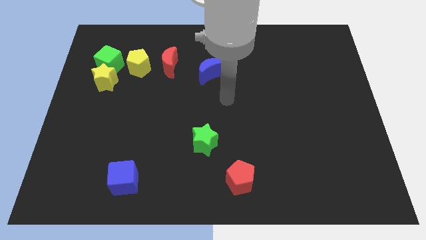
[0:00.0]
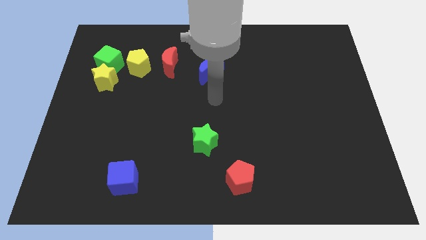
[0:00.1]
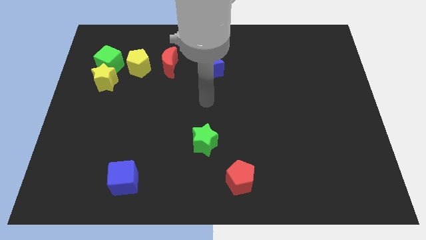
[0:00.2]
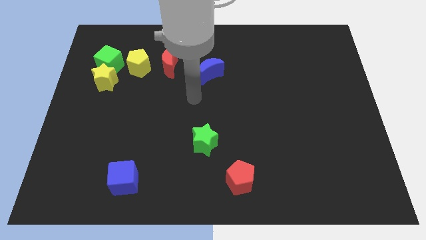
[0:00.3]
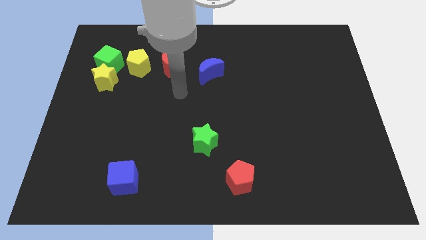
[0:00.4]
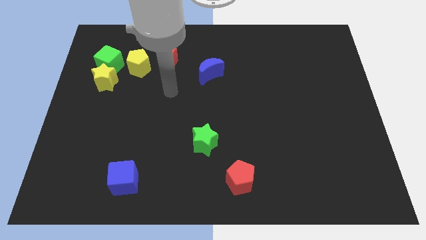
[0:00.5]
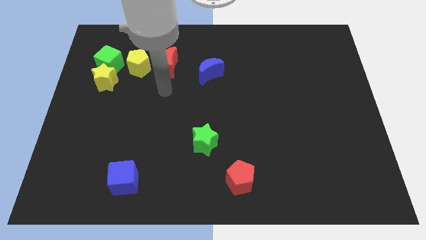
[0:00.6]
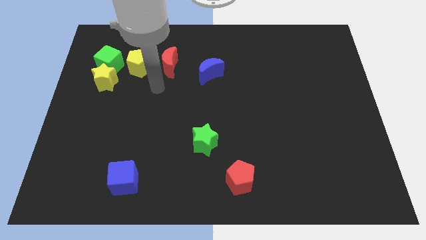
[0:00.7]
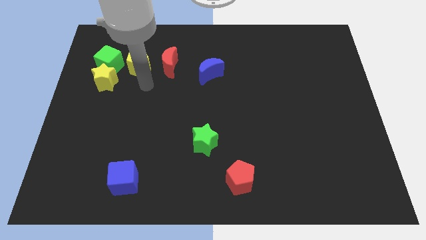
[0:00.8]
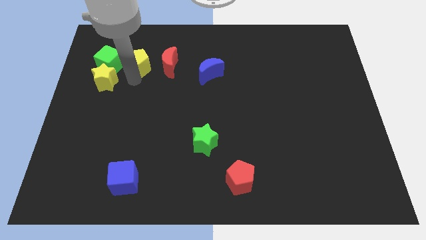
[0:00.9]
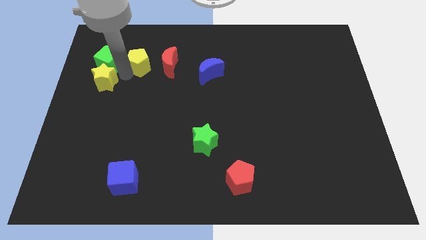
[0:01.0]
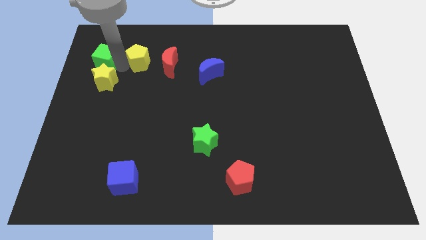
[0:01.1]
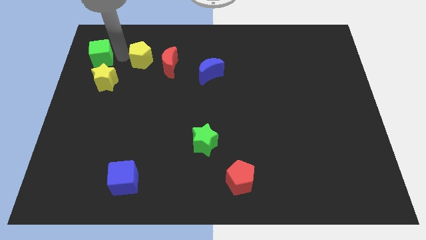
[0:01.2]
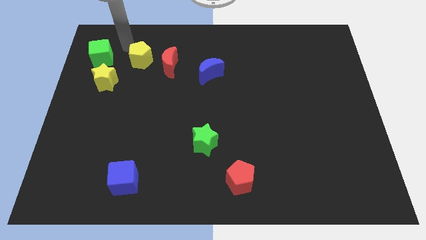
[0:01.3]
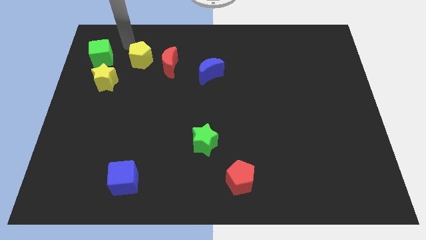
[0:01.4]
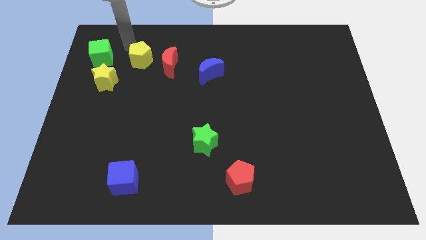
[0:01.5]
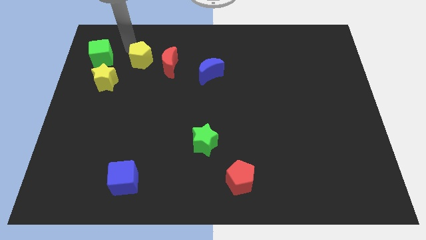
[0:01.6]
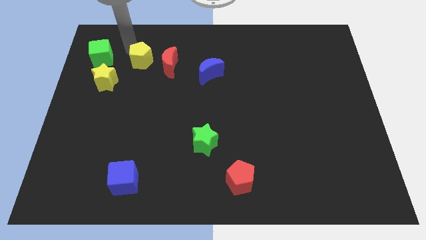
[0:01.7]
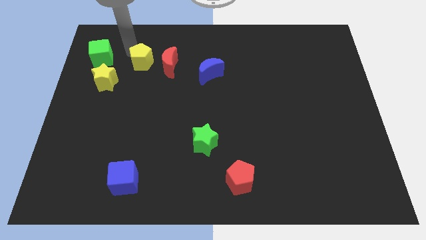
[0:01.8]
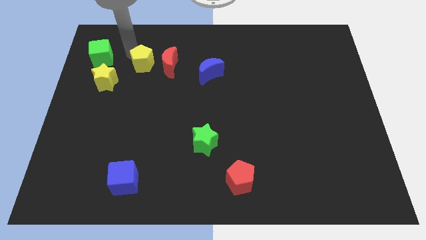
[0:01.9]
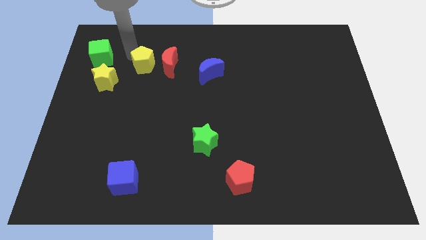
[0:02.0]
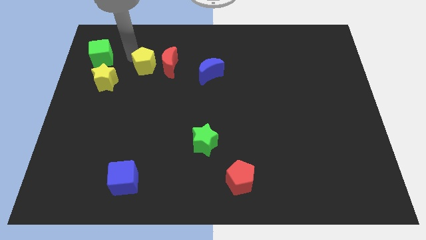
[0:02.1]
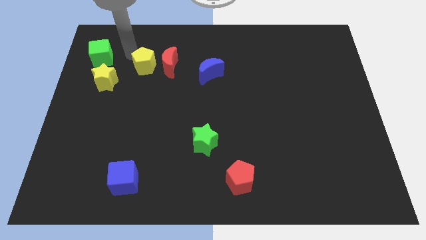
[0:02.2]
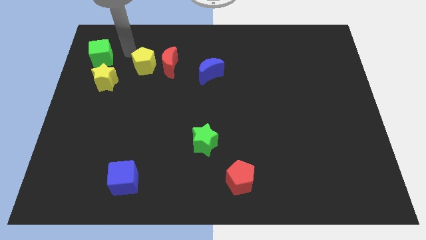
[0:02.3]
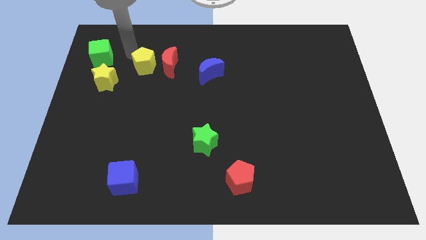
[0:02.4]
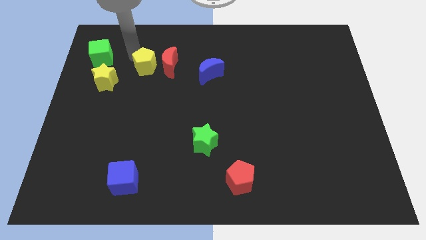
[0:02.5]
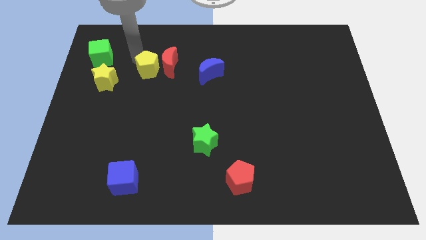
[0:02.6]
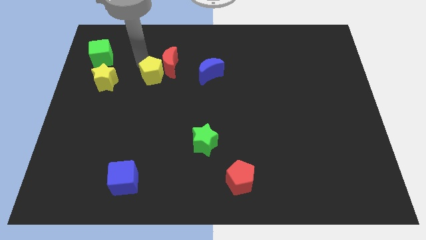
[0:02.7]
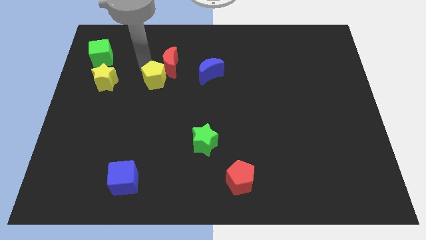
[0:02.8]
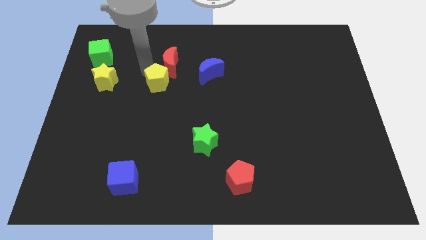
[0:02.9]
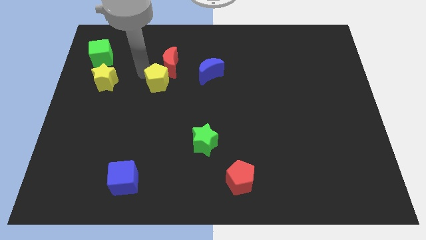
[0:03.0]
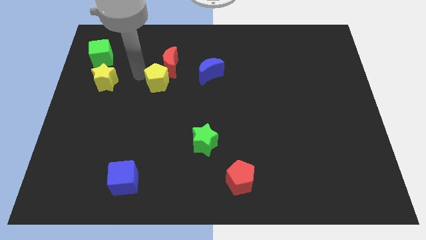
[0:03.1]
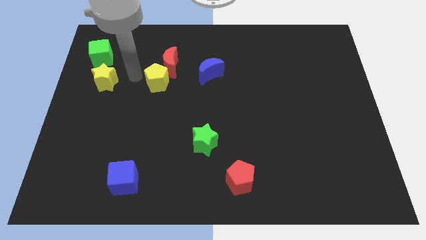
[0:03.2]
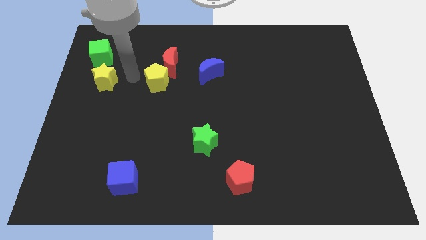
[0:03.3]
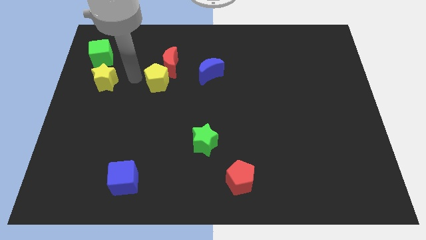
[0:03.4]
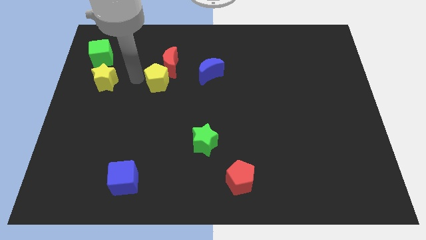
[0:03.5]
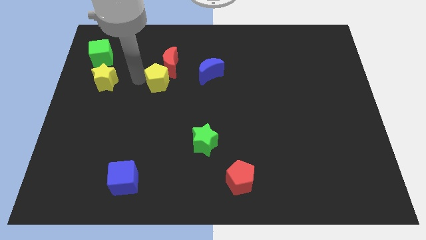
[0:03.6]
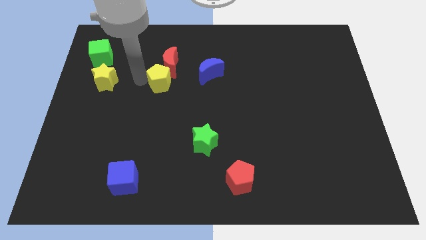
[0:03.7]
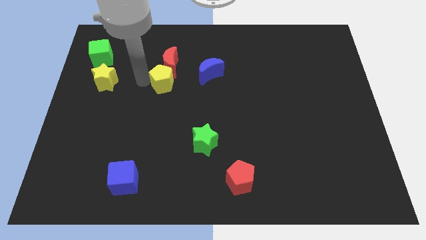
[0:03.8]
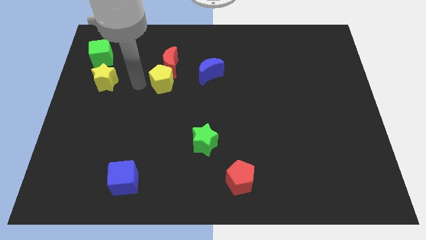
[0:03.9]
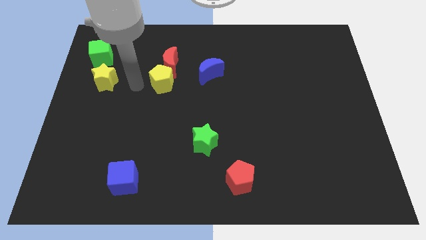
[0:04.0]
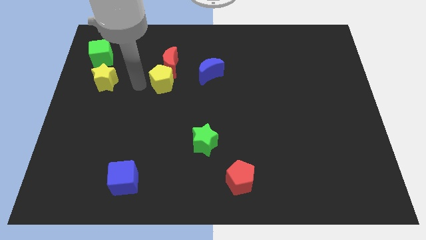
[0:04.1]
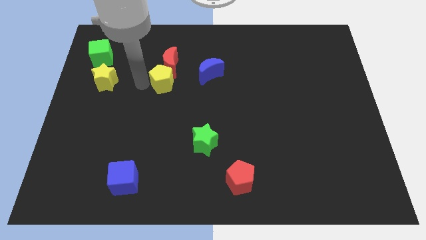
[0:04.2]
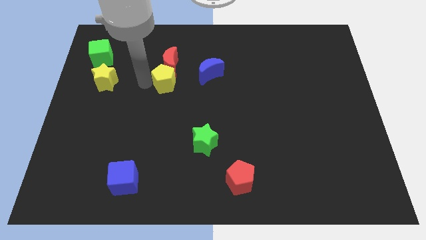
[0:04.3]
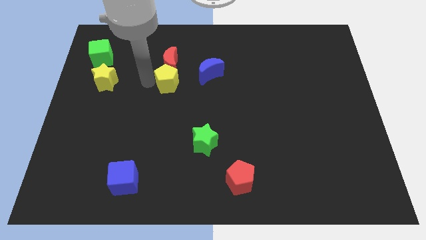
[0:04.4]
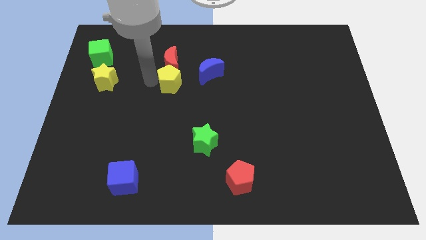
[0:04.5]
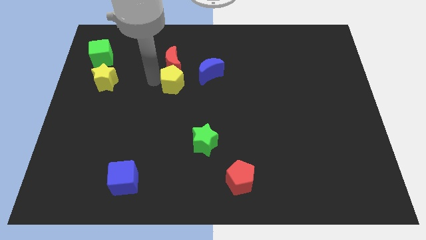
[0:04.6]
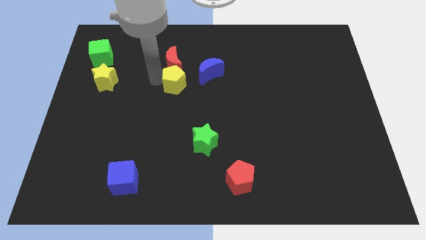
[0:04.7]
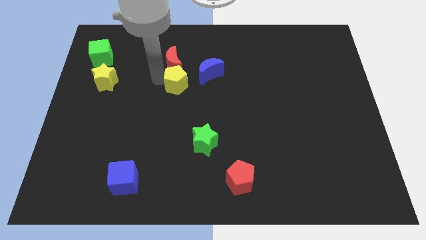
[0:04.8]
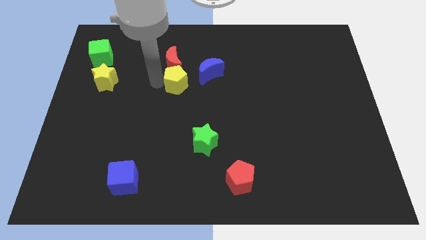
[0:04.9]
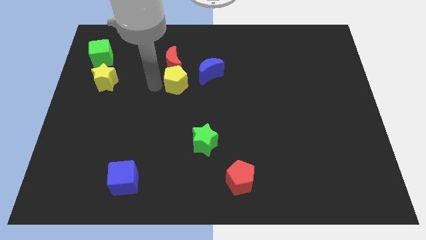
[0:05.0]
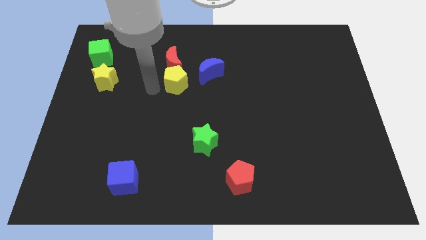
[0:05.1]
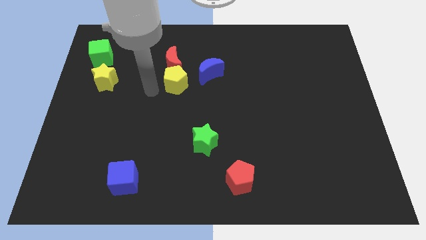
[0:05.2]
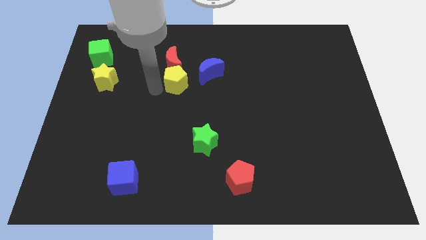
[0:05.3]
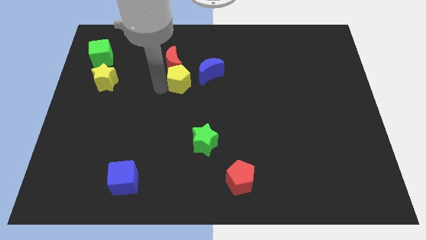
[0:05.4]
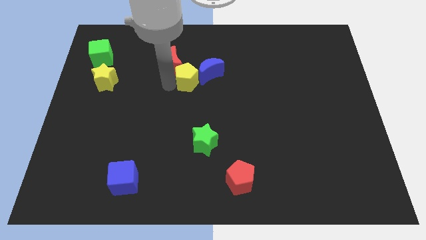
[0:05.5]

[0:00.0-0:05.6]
push the yellow pentagon to the blue moon

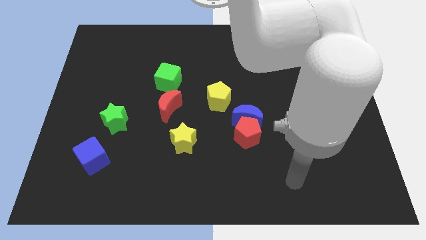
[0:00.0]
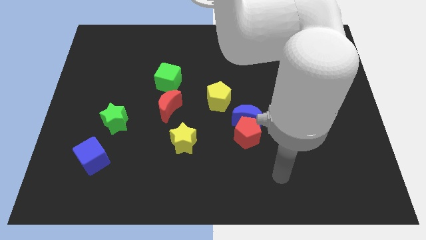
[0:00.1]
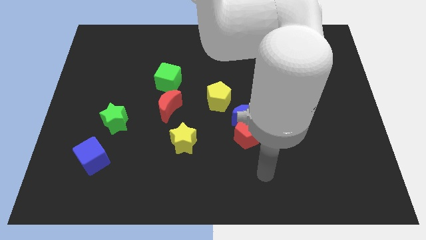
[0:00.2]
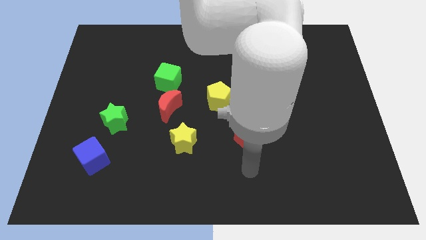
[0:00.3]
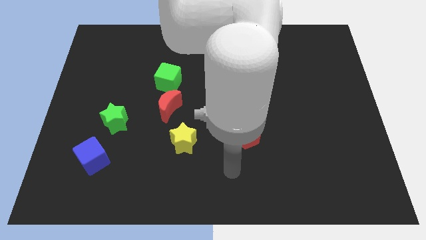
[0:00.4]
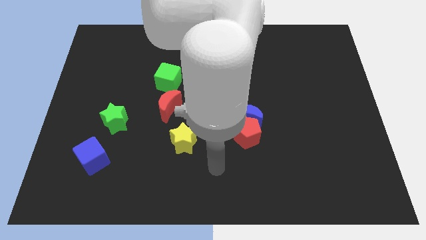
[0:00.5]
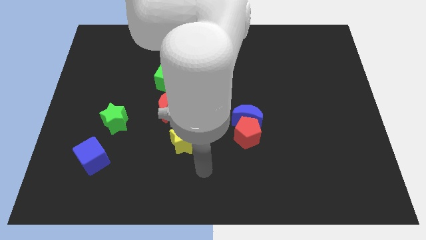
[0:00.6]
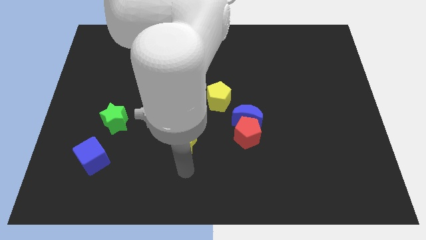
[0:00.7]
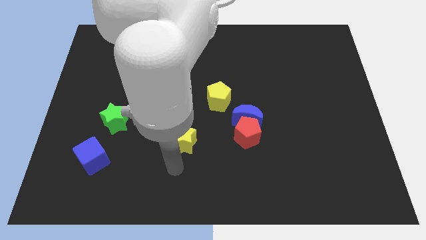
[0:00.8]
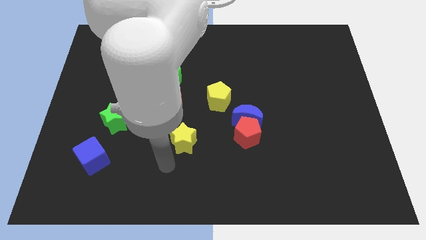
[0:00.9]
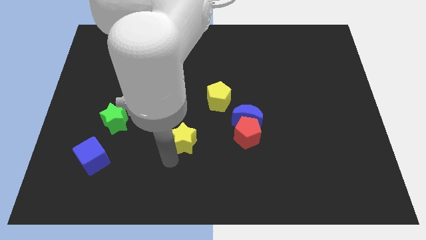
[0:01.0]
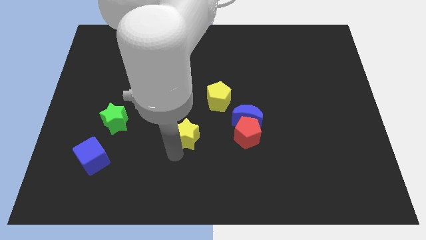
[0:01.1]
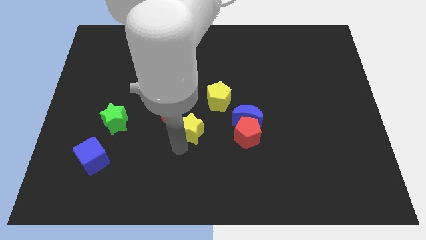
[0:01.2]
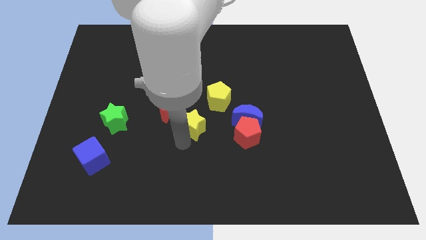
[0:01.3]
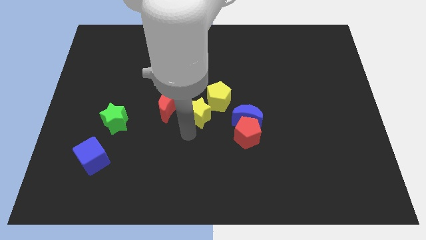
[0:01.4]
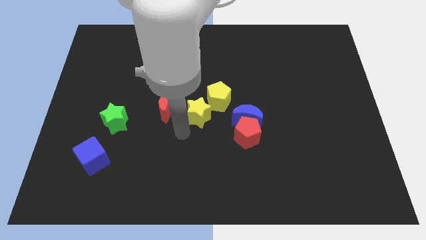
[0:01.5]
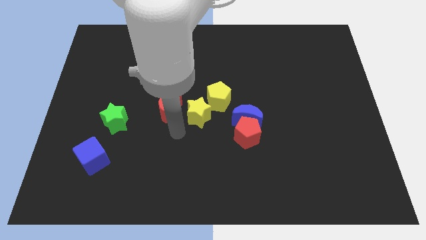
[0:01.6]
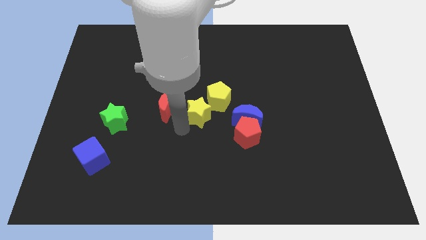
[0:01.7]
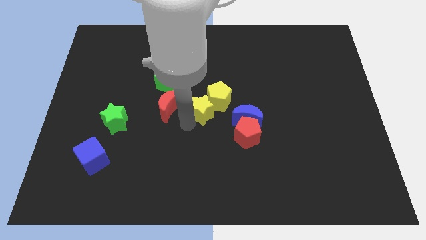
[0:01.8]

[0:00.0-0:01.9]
slide the yellow star next to the yellow pentagon
